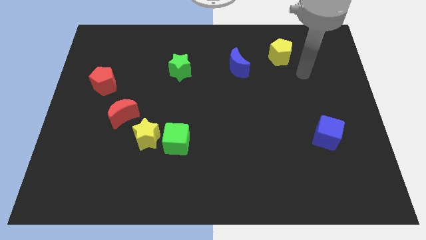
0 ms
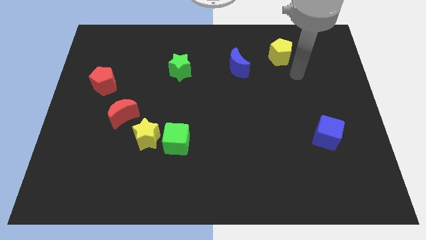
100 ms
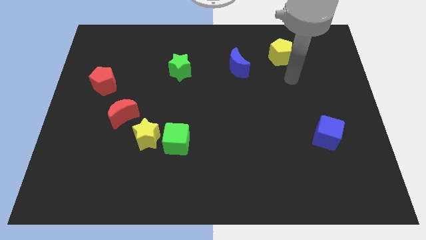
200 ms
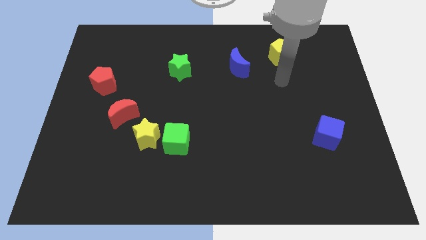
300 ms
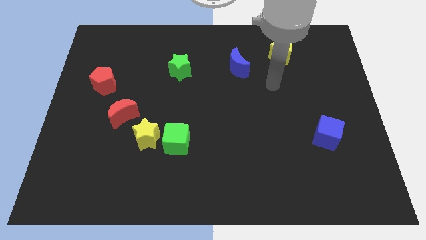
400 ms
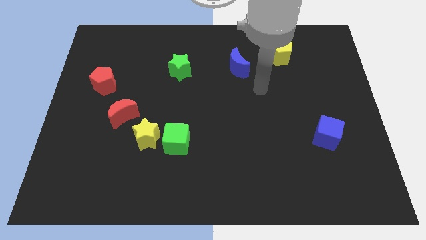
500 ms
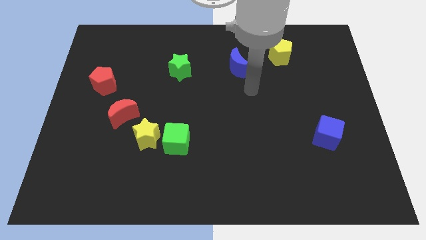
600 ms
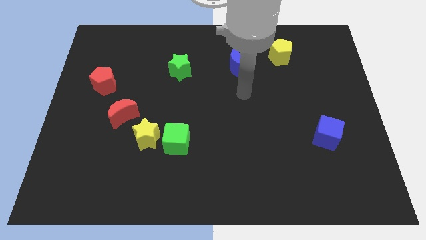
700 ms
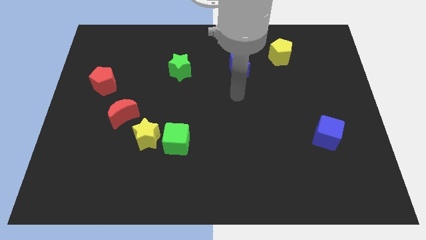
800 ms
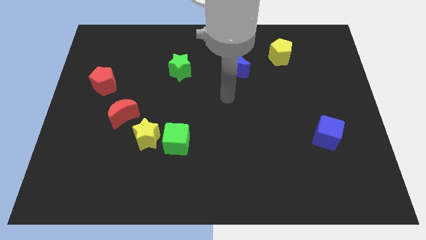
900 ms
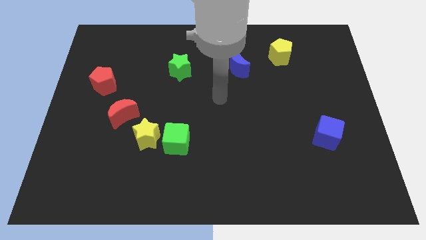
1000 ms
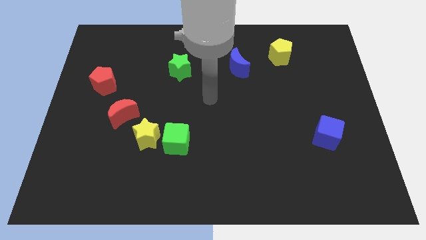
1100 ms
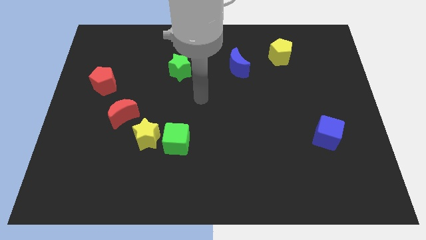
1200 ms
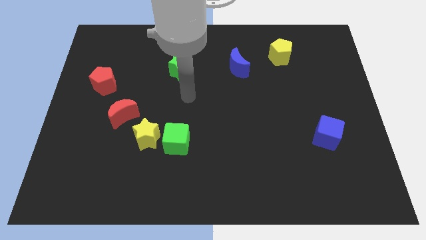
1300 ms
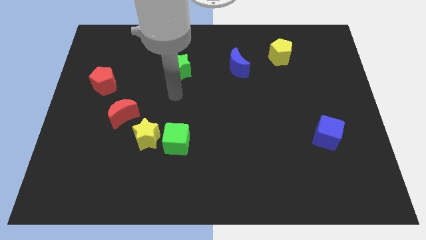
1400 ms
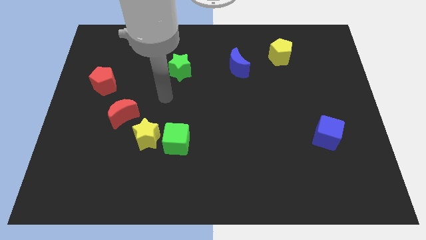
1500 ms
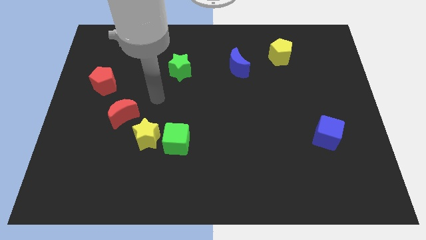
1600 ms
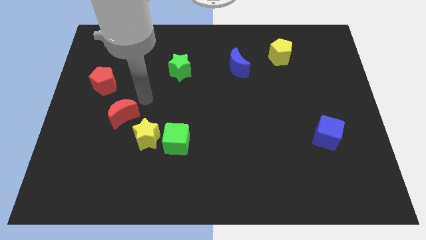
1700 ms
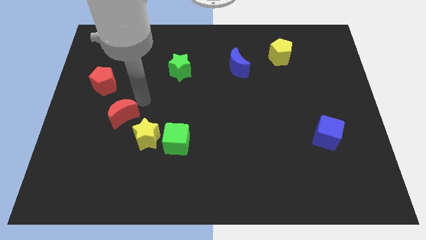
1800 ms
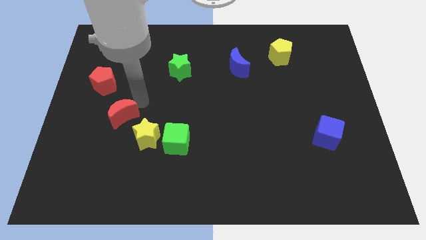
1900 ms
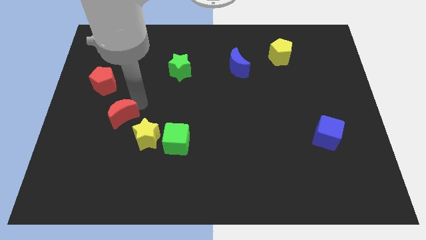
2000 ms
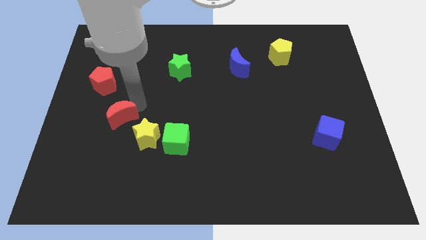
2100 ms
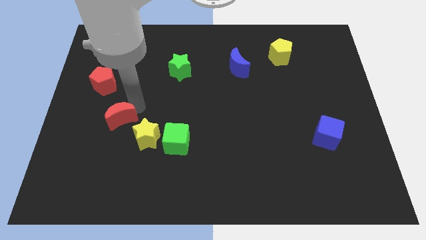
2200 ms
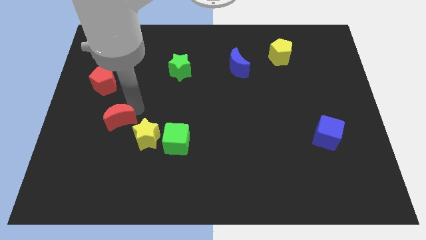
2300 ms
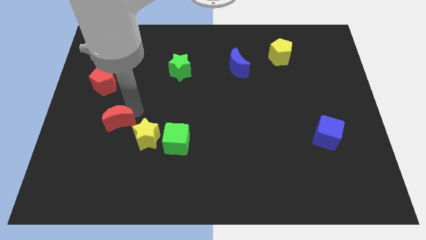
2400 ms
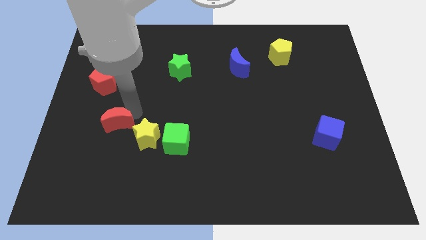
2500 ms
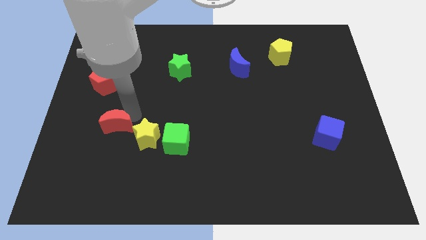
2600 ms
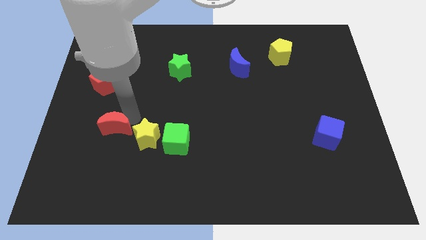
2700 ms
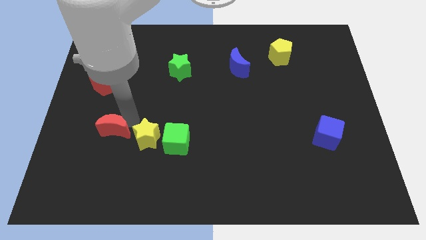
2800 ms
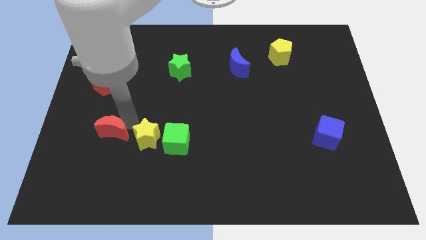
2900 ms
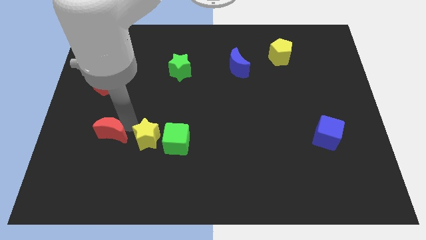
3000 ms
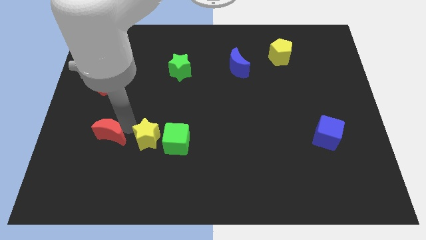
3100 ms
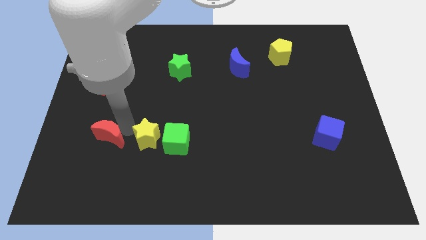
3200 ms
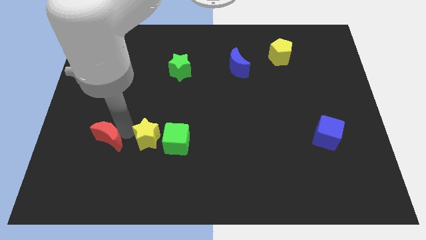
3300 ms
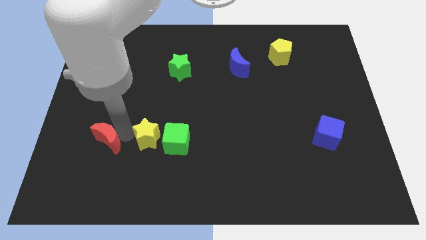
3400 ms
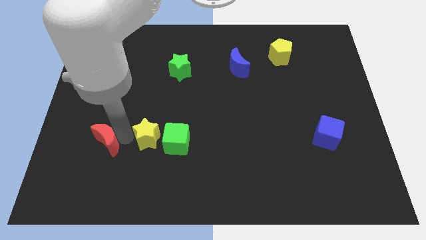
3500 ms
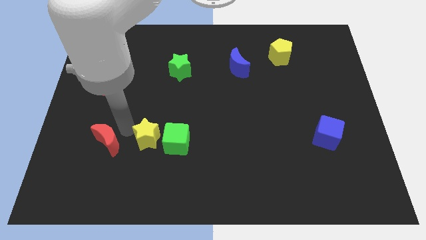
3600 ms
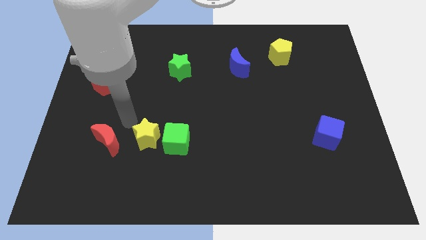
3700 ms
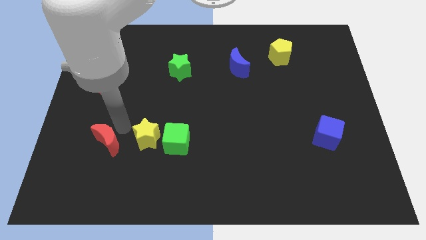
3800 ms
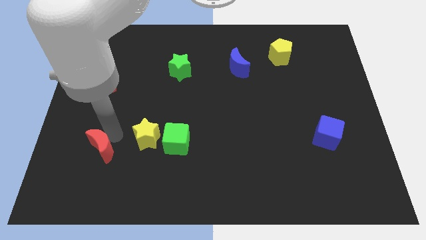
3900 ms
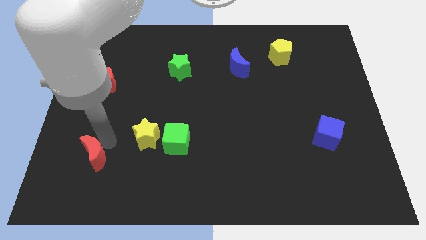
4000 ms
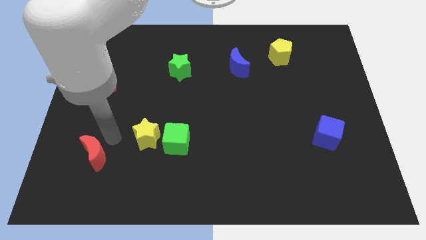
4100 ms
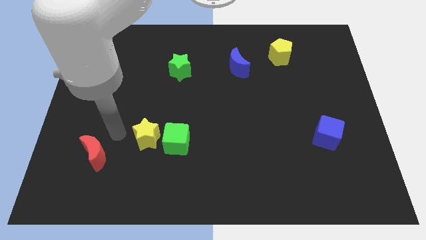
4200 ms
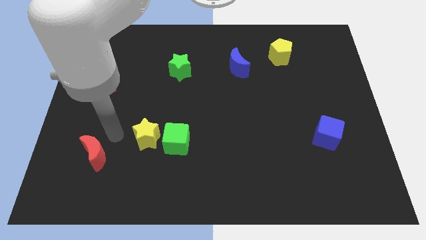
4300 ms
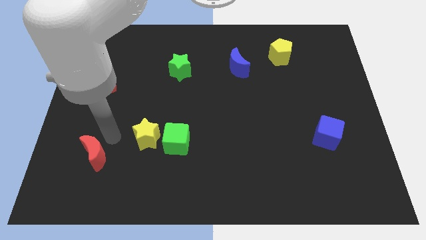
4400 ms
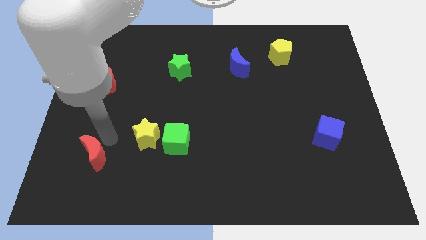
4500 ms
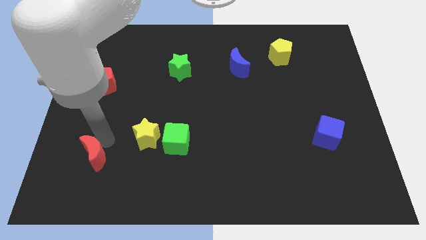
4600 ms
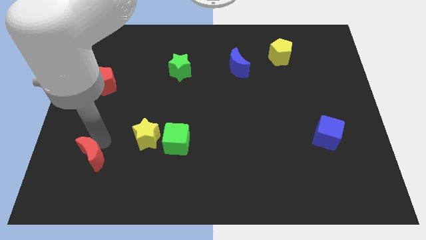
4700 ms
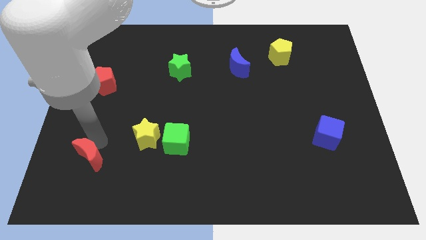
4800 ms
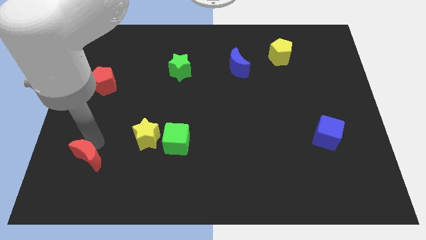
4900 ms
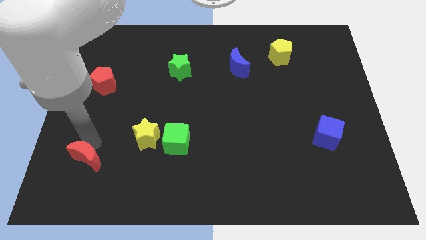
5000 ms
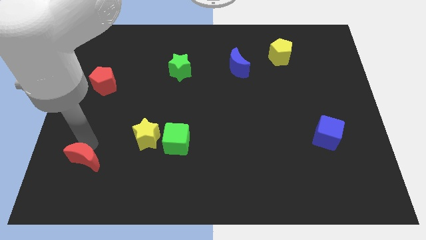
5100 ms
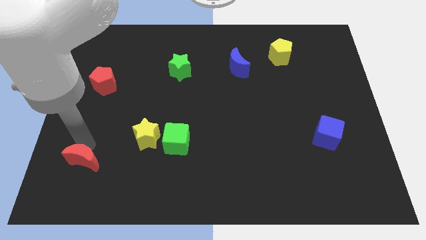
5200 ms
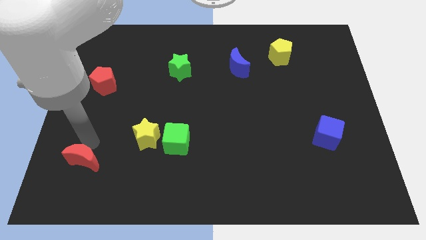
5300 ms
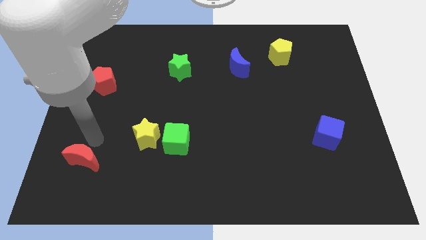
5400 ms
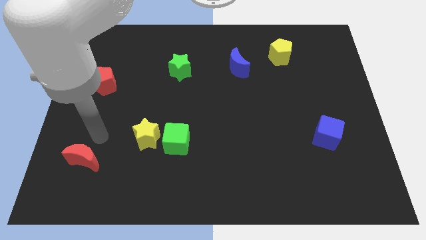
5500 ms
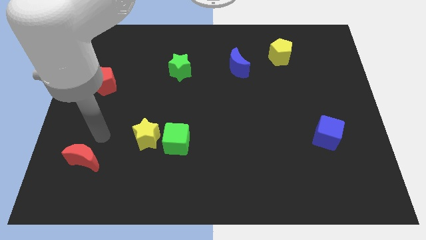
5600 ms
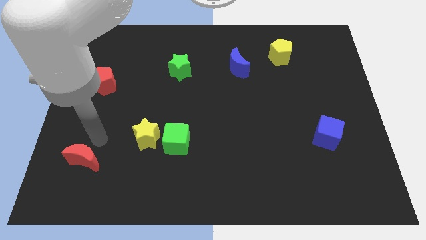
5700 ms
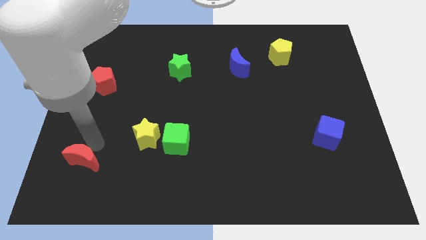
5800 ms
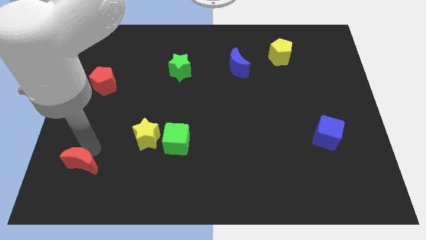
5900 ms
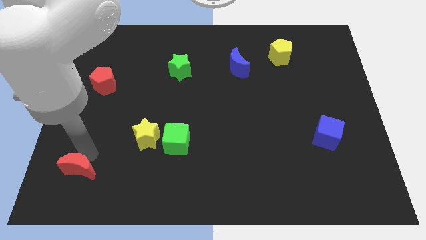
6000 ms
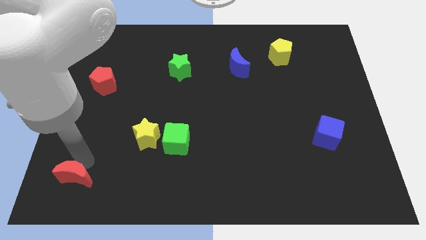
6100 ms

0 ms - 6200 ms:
move the red moon to the bottom left of the board
